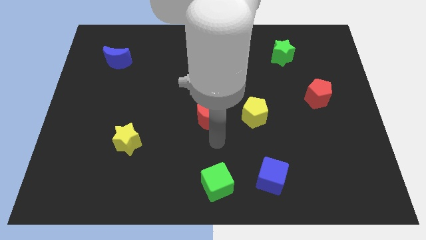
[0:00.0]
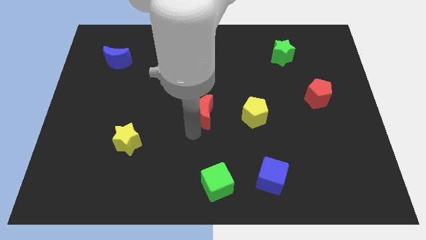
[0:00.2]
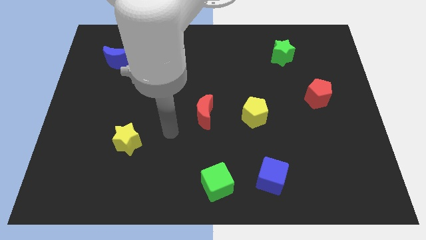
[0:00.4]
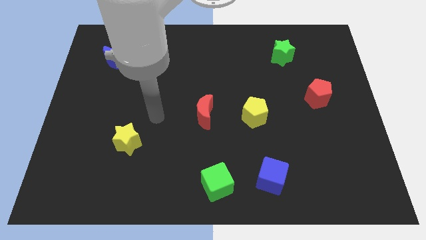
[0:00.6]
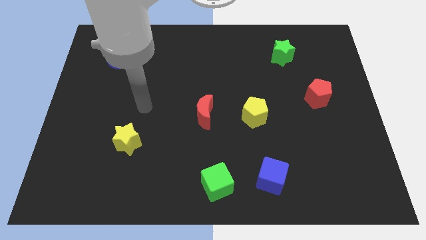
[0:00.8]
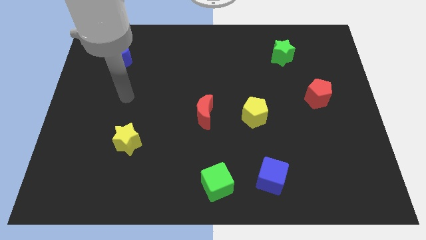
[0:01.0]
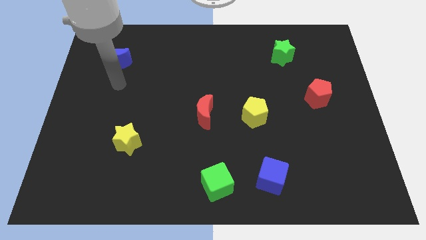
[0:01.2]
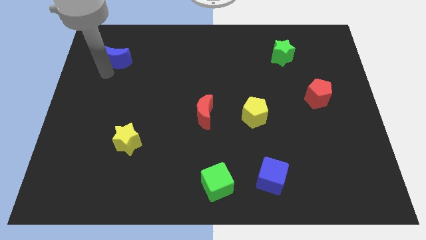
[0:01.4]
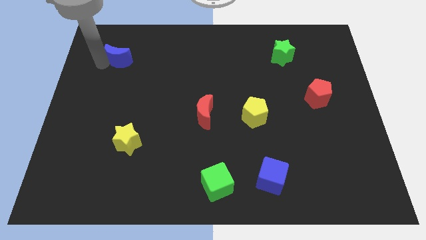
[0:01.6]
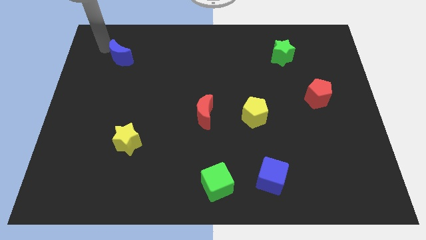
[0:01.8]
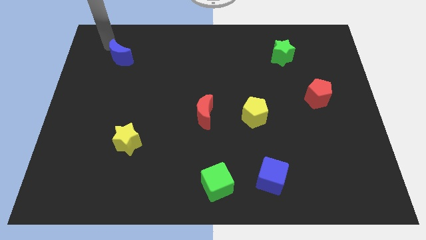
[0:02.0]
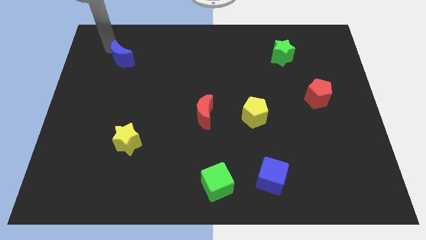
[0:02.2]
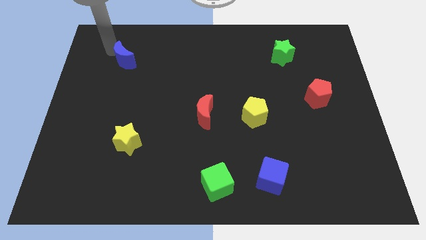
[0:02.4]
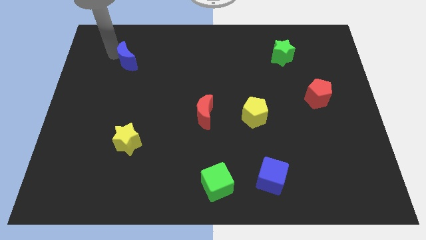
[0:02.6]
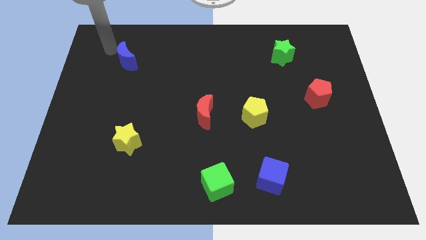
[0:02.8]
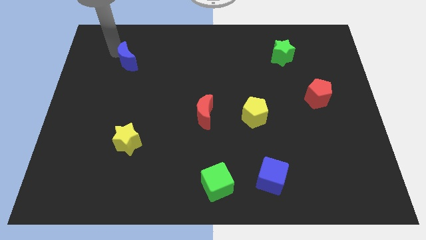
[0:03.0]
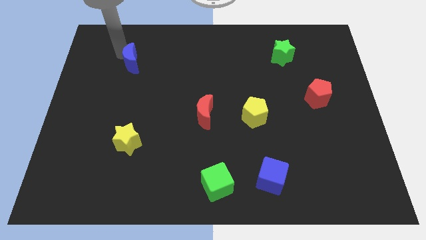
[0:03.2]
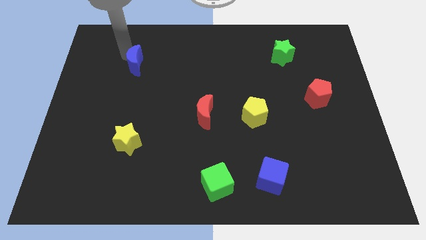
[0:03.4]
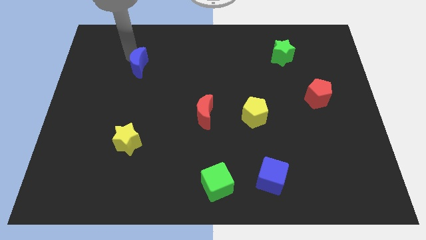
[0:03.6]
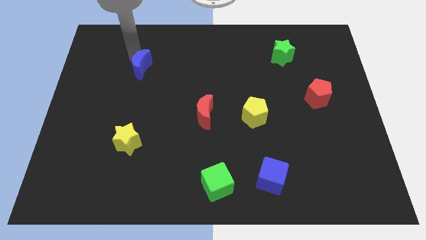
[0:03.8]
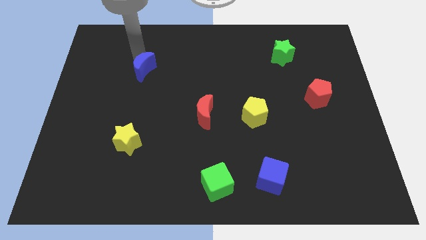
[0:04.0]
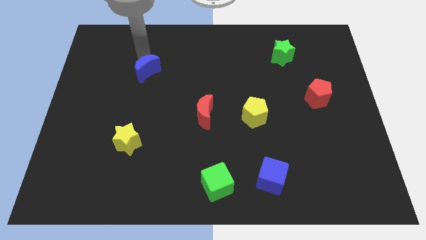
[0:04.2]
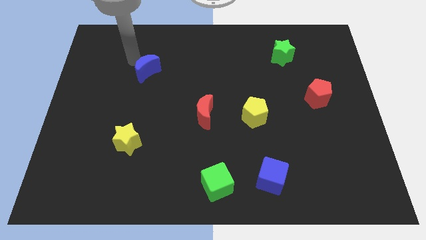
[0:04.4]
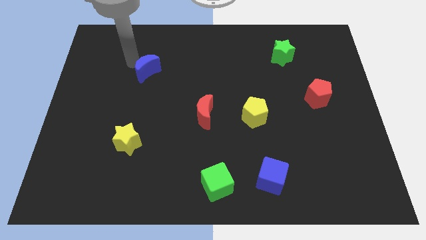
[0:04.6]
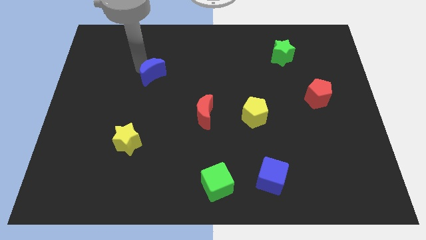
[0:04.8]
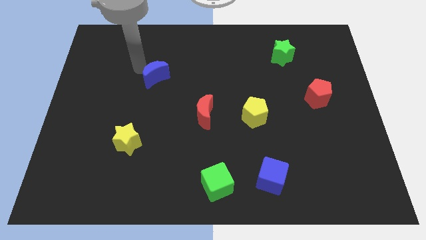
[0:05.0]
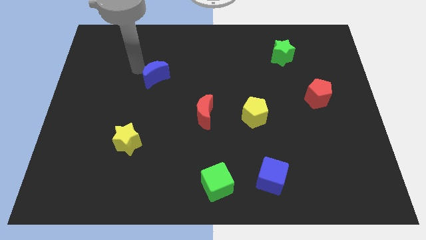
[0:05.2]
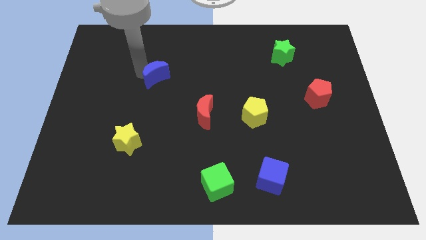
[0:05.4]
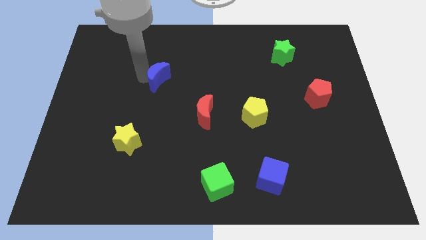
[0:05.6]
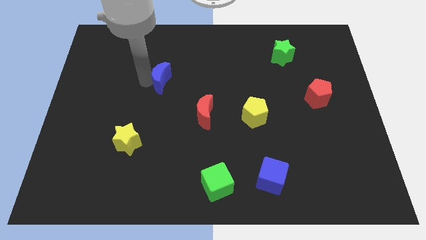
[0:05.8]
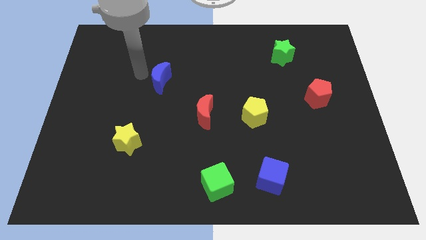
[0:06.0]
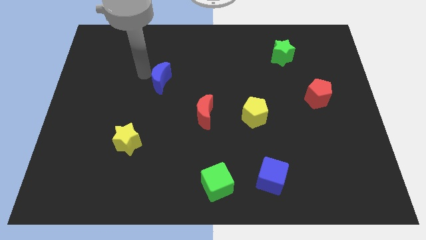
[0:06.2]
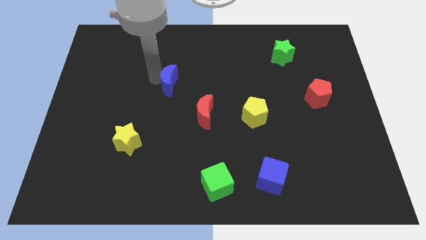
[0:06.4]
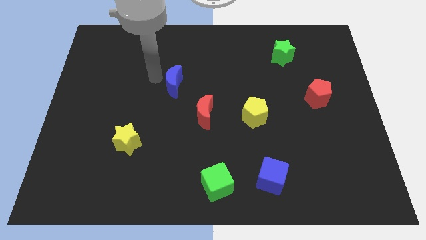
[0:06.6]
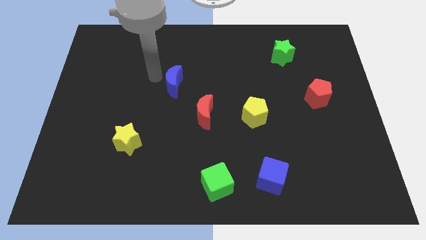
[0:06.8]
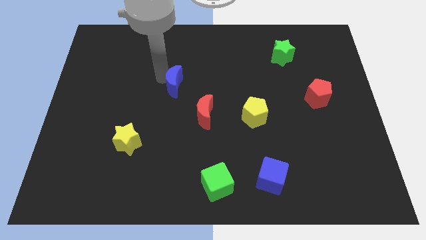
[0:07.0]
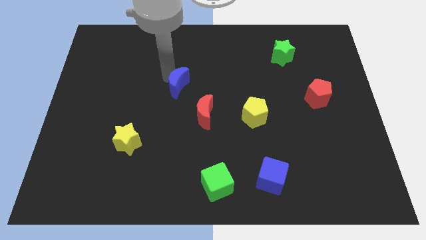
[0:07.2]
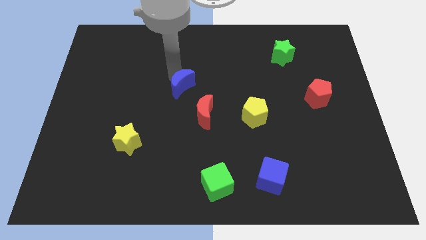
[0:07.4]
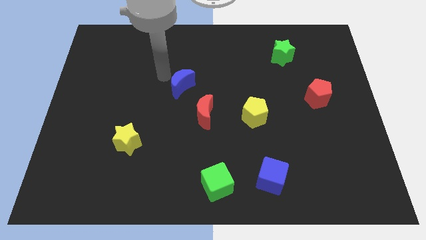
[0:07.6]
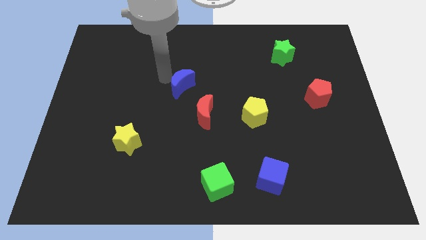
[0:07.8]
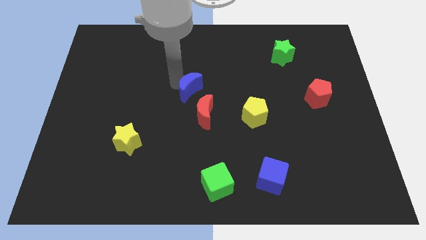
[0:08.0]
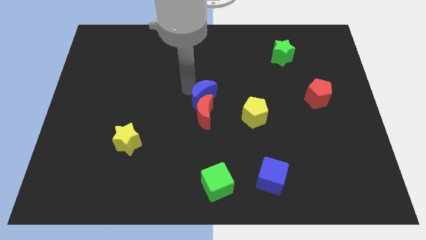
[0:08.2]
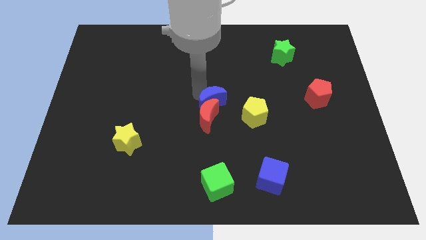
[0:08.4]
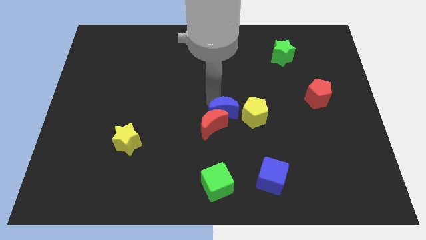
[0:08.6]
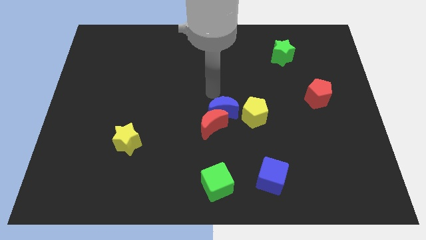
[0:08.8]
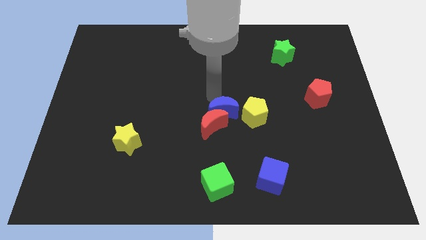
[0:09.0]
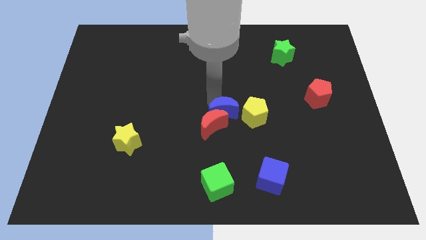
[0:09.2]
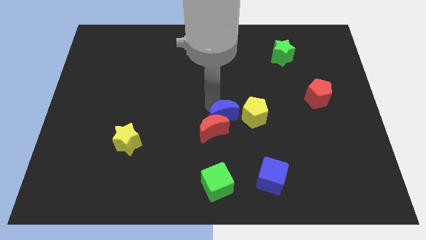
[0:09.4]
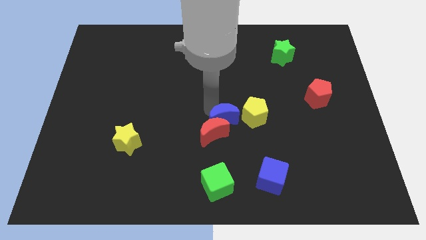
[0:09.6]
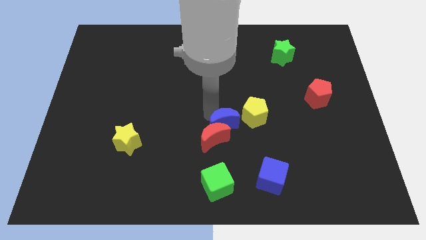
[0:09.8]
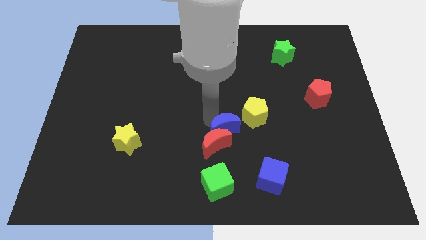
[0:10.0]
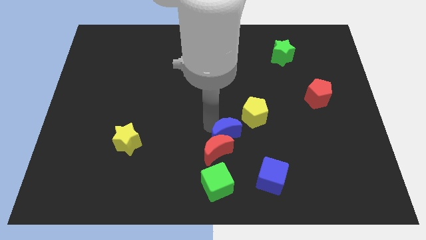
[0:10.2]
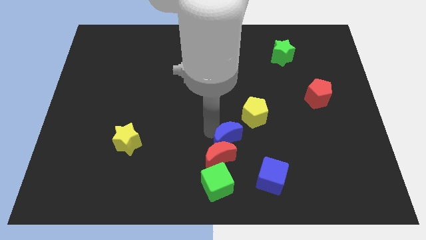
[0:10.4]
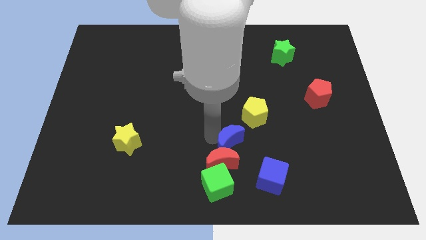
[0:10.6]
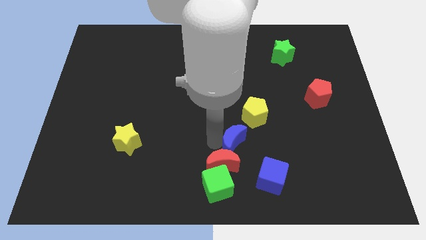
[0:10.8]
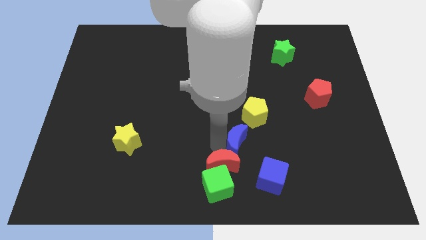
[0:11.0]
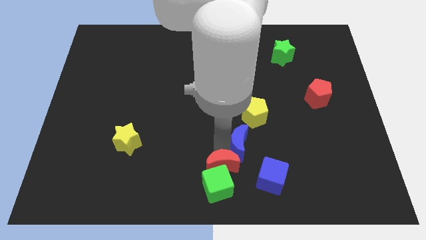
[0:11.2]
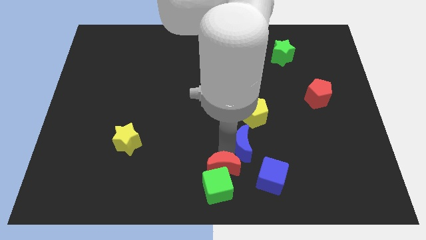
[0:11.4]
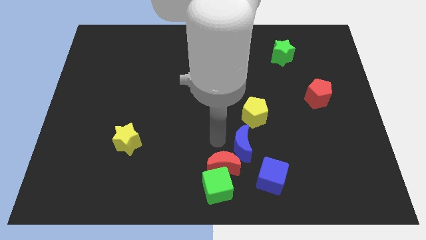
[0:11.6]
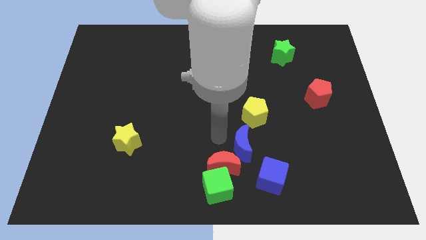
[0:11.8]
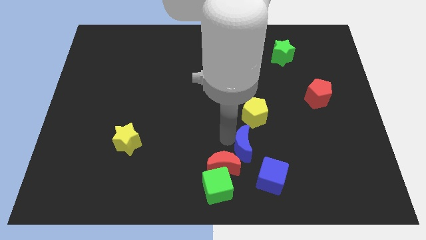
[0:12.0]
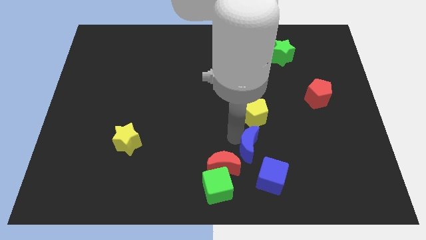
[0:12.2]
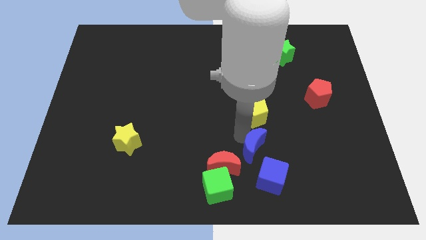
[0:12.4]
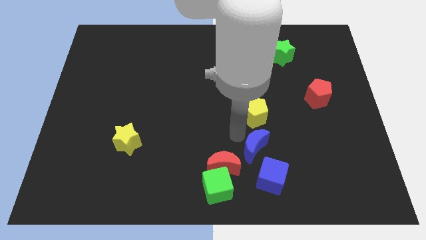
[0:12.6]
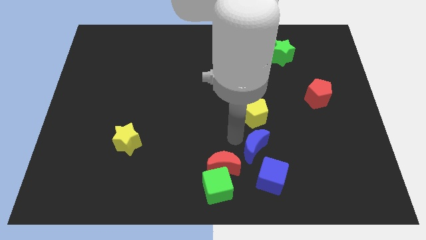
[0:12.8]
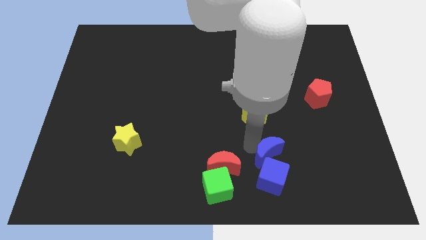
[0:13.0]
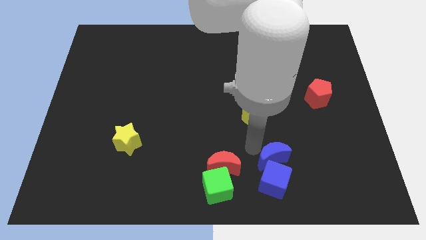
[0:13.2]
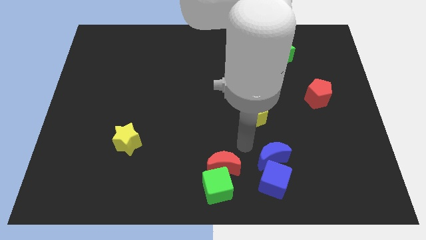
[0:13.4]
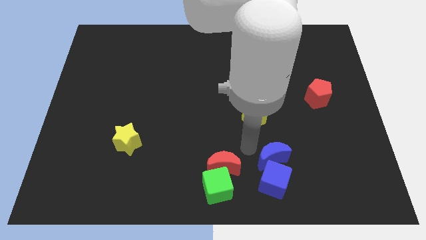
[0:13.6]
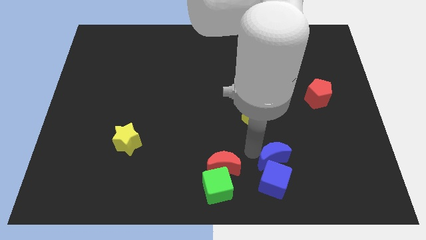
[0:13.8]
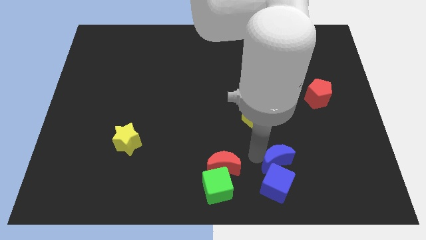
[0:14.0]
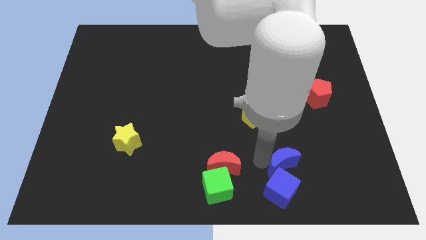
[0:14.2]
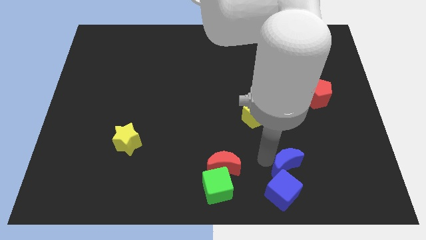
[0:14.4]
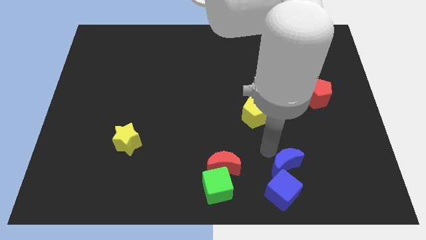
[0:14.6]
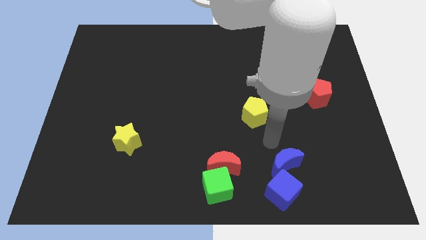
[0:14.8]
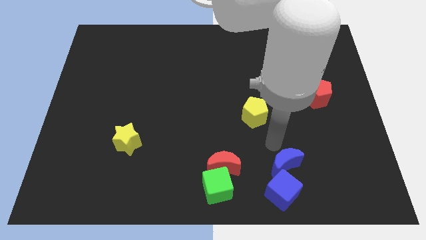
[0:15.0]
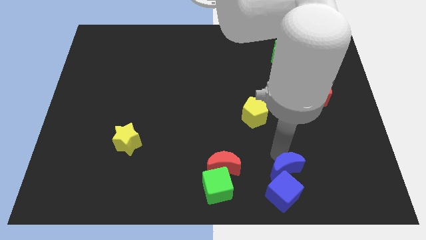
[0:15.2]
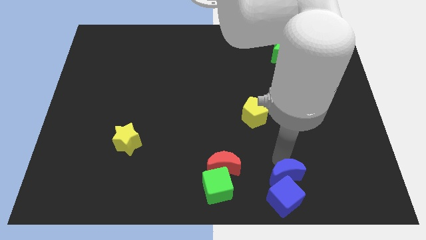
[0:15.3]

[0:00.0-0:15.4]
put the blue moon to the right side of the green cube
